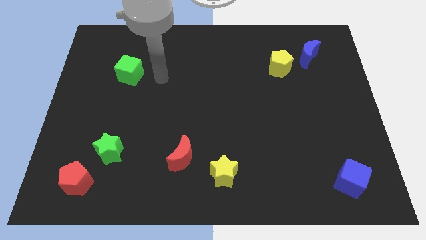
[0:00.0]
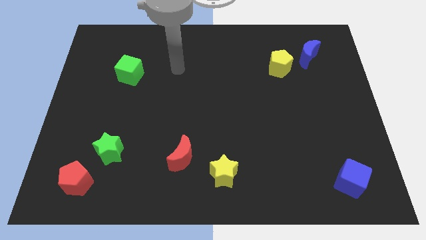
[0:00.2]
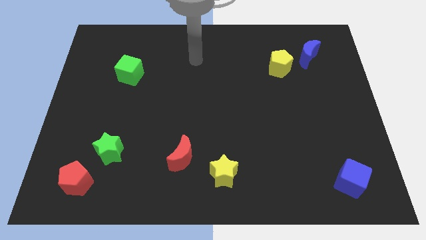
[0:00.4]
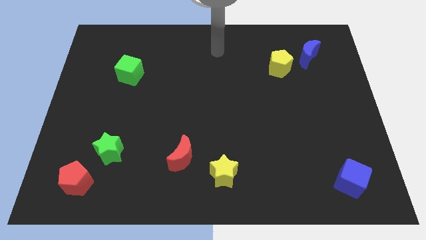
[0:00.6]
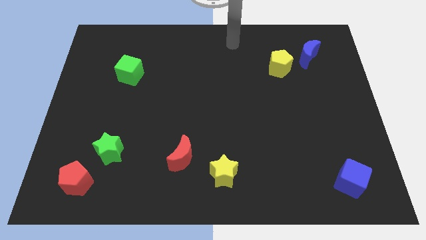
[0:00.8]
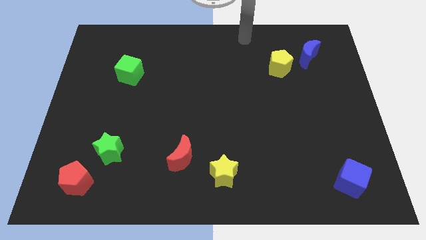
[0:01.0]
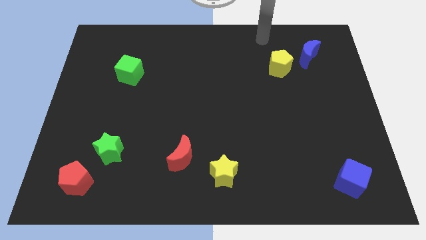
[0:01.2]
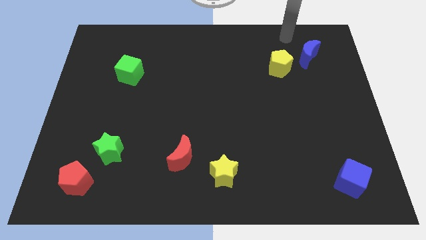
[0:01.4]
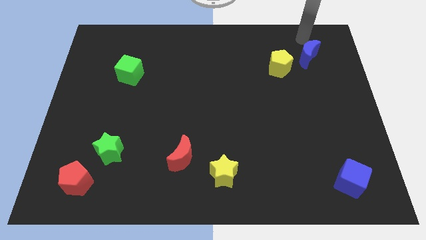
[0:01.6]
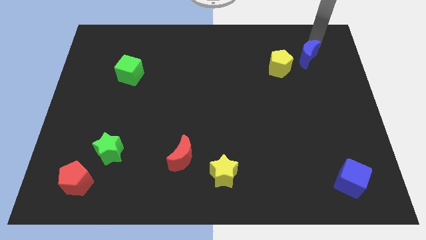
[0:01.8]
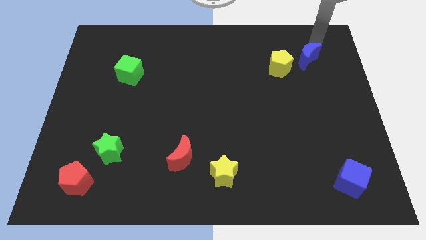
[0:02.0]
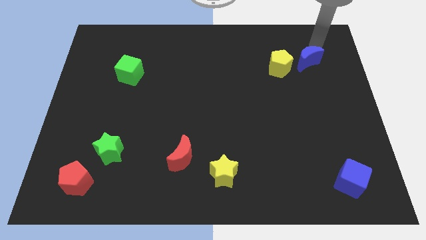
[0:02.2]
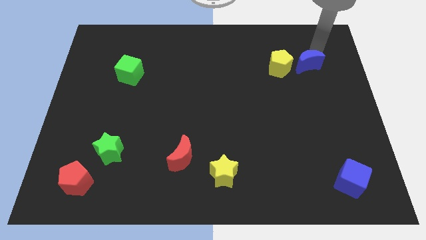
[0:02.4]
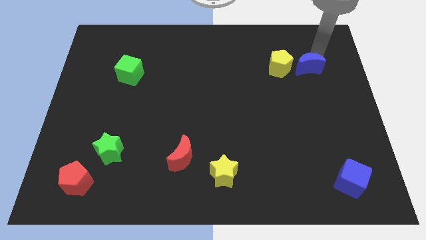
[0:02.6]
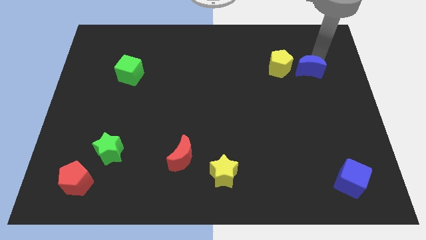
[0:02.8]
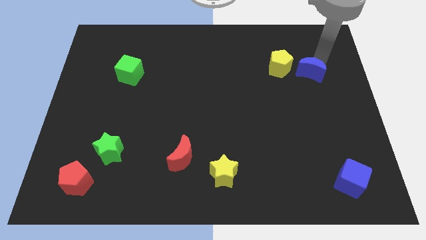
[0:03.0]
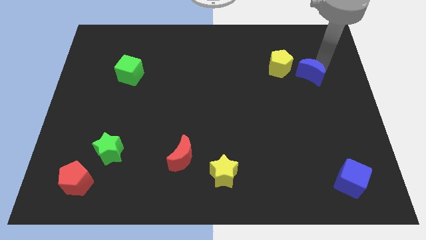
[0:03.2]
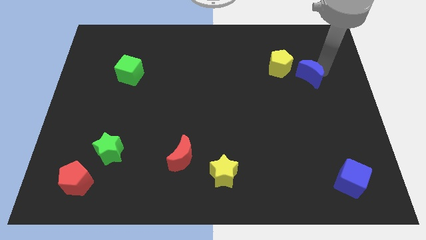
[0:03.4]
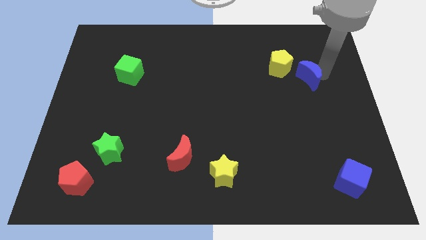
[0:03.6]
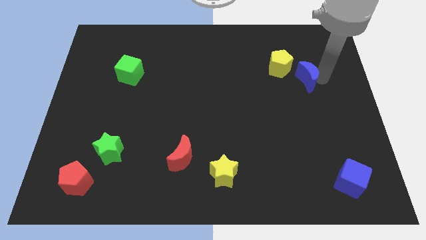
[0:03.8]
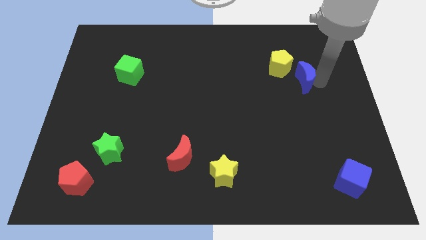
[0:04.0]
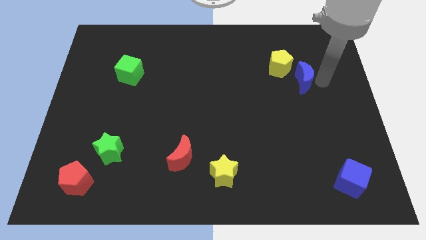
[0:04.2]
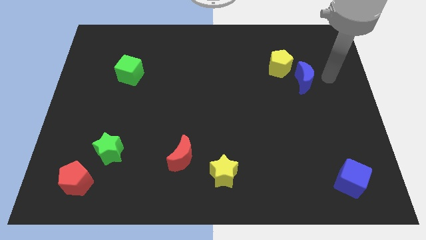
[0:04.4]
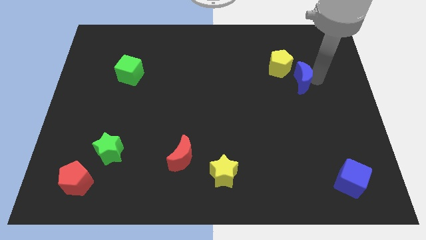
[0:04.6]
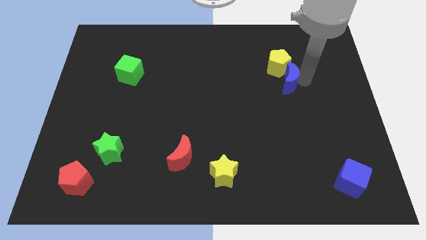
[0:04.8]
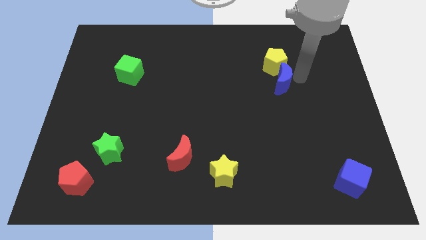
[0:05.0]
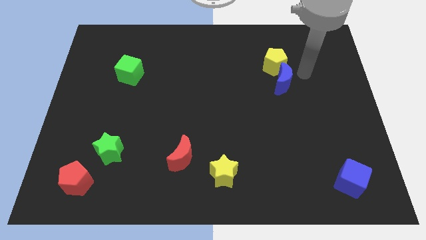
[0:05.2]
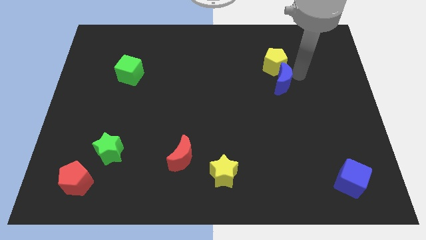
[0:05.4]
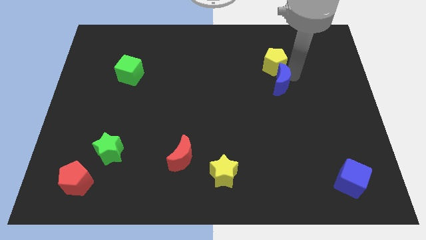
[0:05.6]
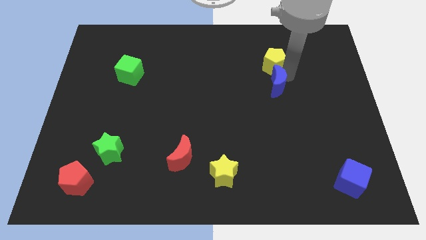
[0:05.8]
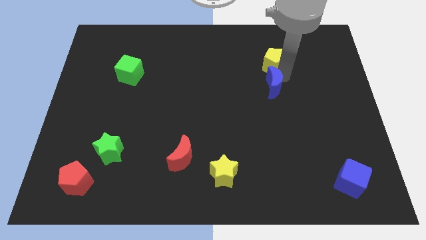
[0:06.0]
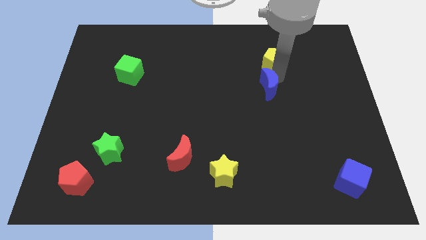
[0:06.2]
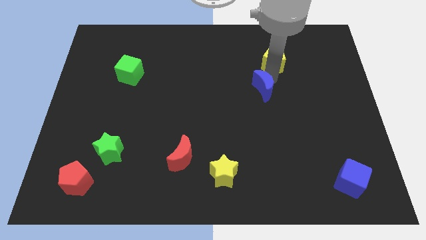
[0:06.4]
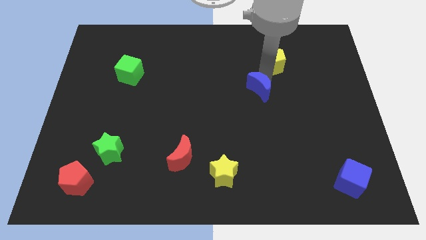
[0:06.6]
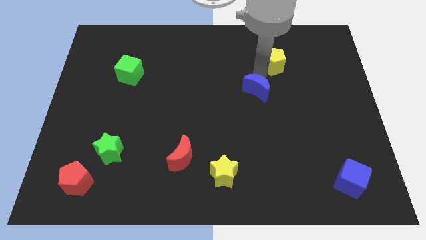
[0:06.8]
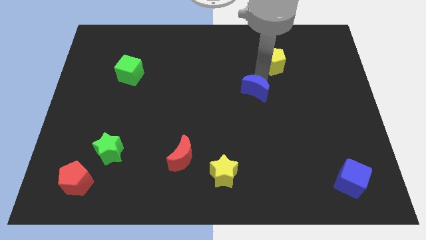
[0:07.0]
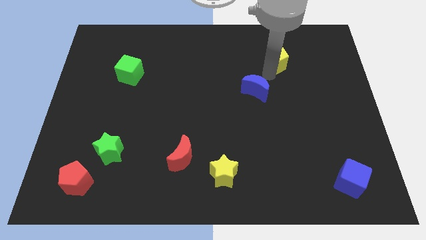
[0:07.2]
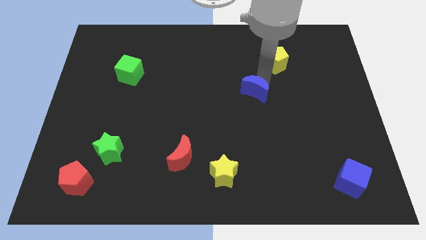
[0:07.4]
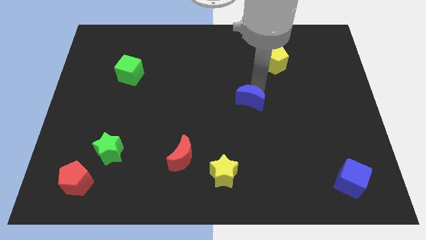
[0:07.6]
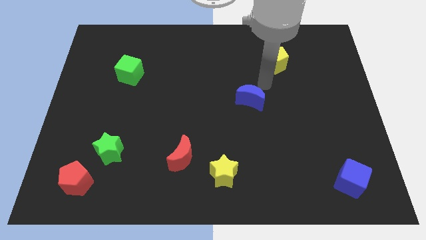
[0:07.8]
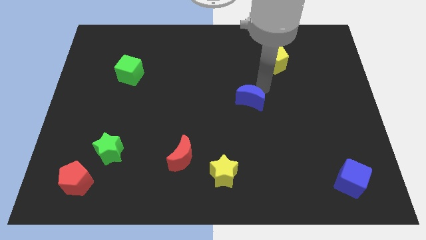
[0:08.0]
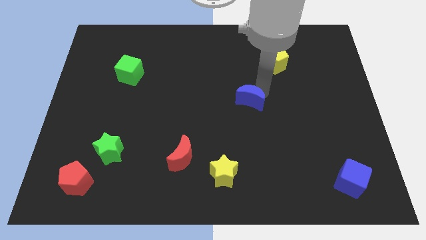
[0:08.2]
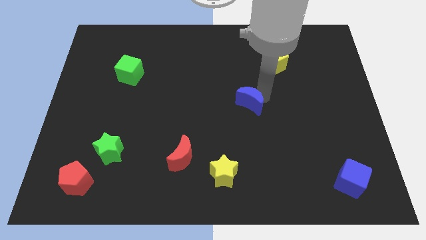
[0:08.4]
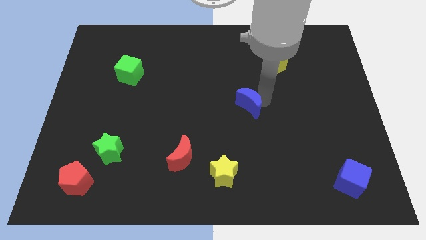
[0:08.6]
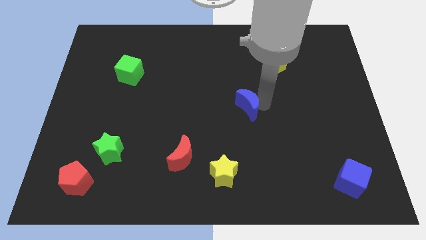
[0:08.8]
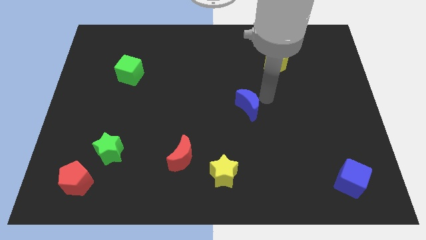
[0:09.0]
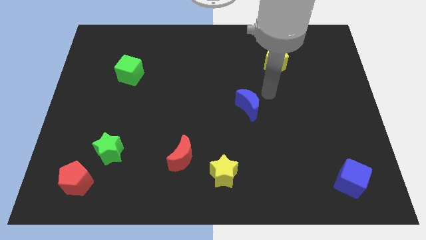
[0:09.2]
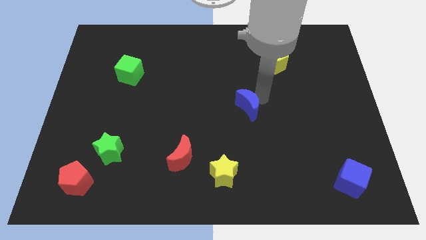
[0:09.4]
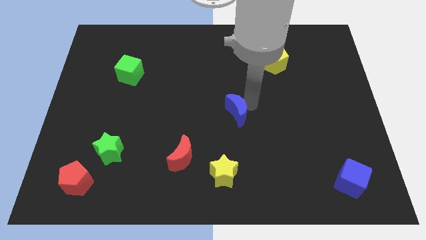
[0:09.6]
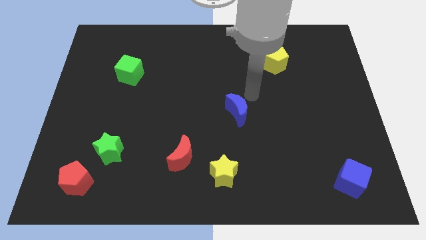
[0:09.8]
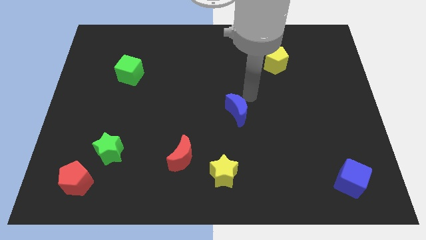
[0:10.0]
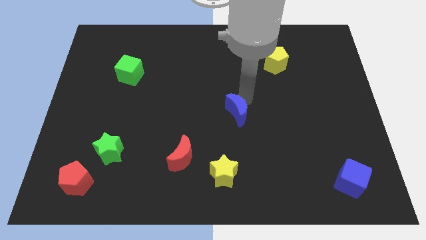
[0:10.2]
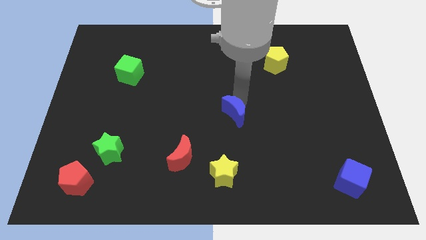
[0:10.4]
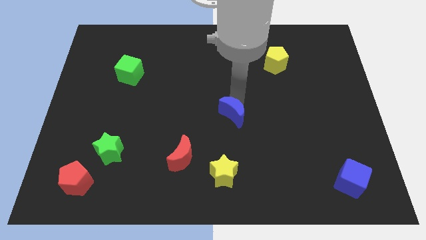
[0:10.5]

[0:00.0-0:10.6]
put the blue moon to the top of the yellow star

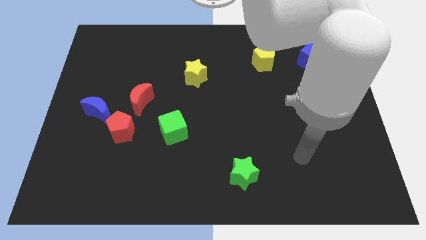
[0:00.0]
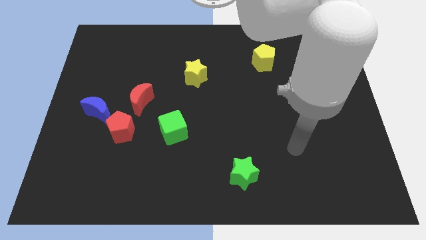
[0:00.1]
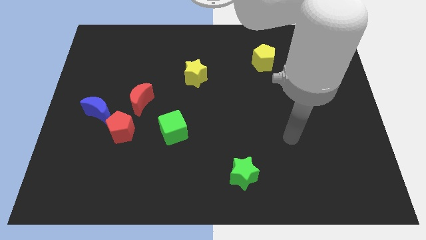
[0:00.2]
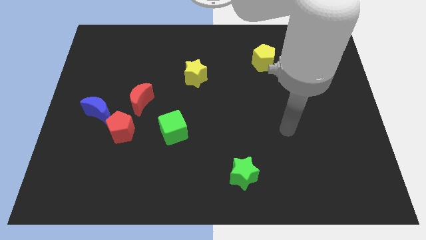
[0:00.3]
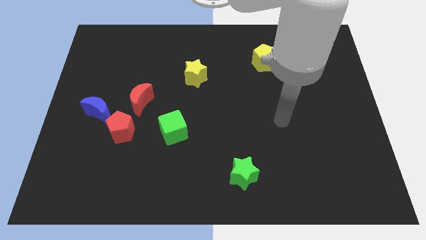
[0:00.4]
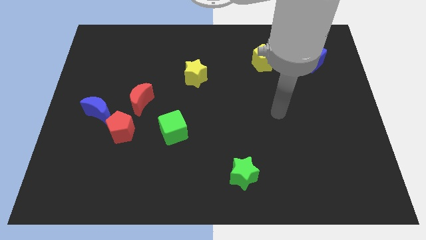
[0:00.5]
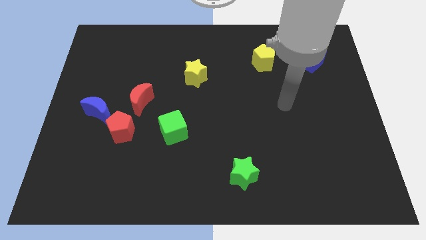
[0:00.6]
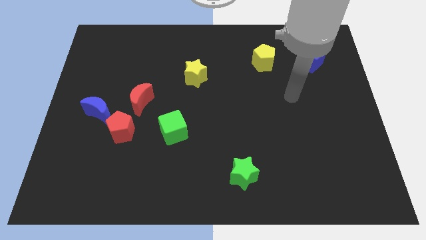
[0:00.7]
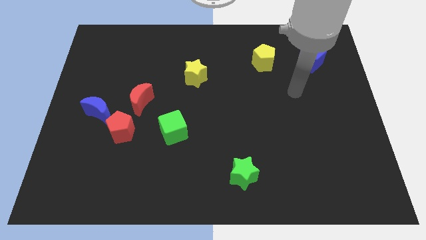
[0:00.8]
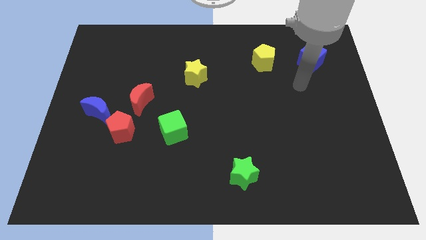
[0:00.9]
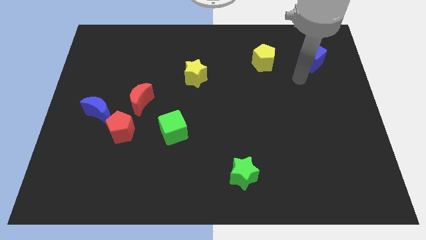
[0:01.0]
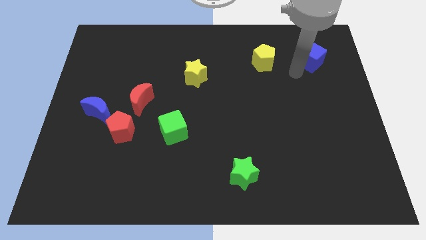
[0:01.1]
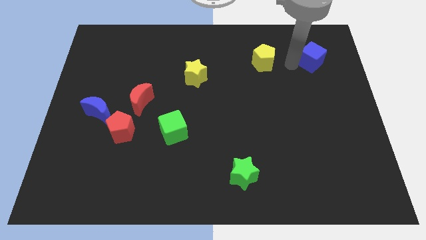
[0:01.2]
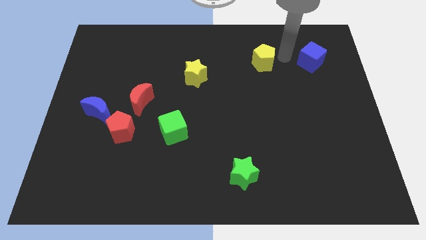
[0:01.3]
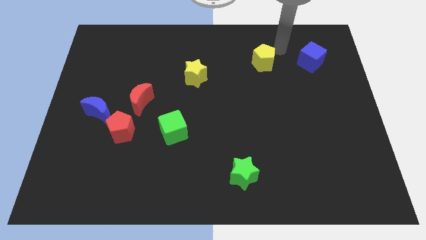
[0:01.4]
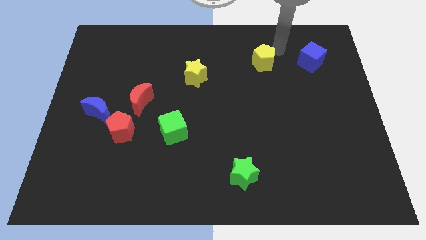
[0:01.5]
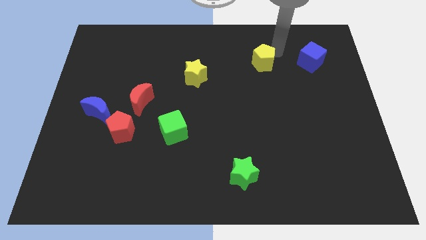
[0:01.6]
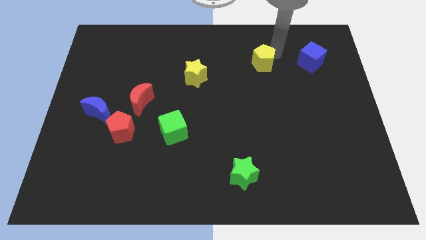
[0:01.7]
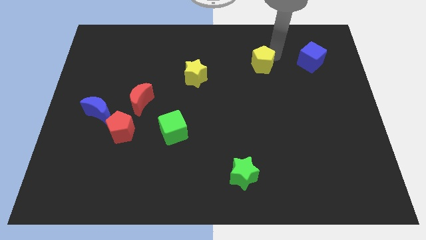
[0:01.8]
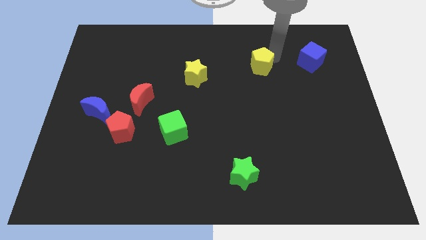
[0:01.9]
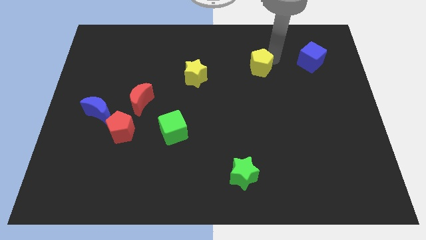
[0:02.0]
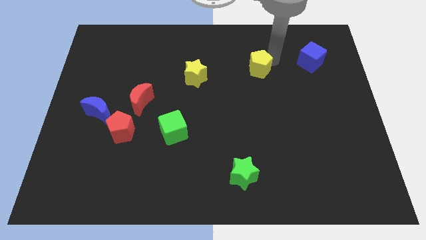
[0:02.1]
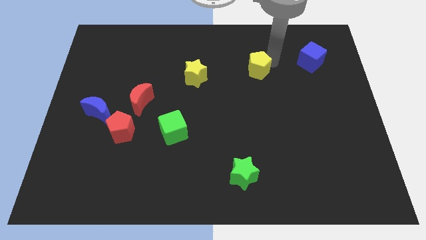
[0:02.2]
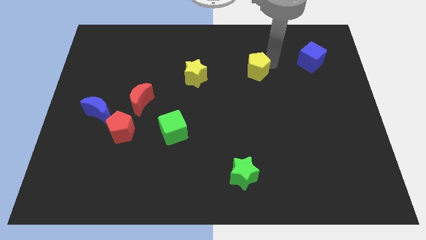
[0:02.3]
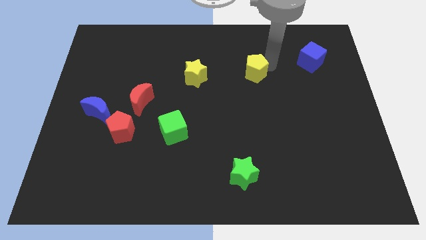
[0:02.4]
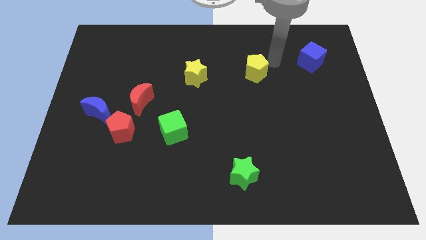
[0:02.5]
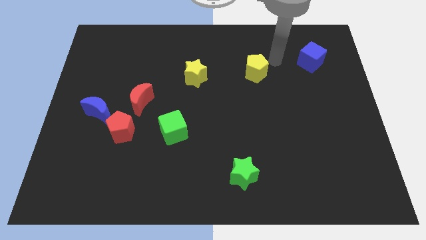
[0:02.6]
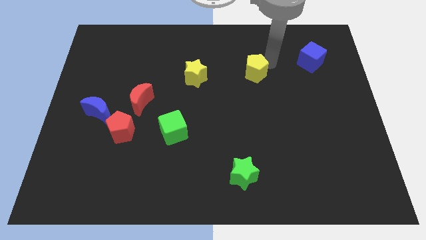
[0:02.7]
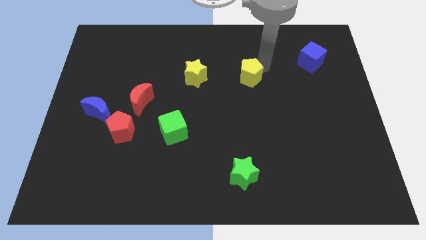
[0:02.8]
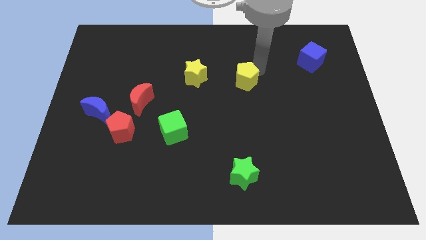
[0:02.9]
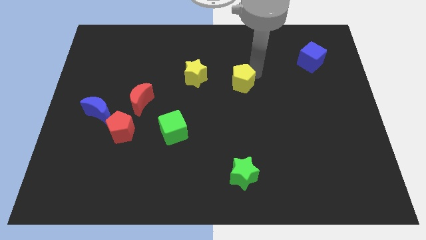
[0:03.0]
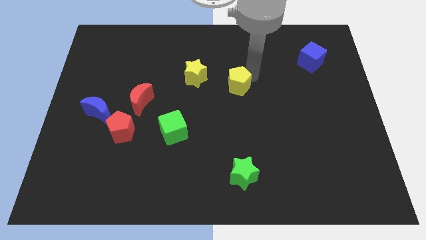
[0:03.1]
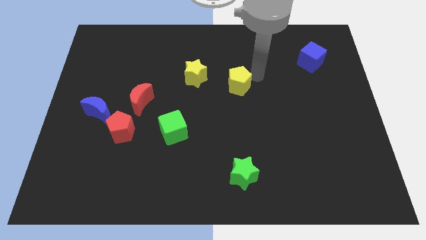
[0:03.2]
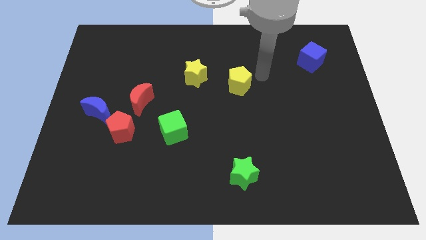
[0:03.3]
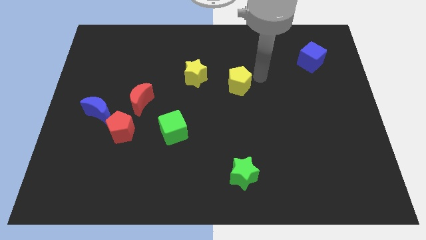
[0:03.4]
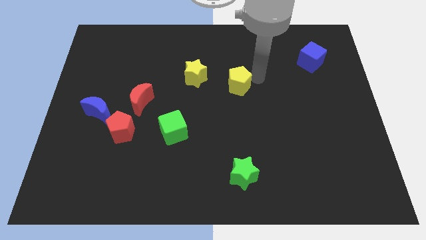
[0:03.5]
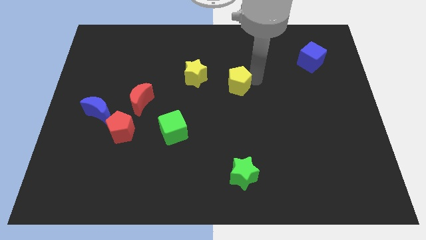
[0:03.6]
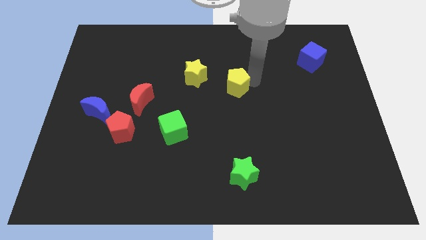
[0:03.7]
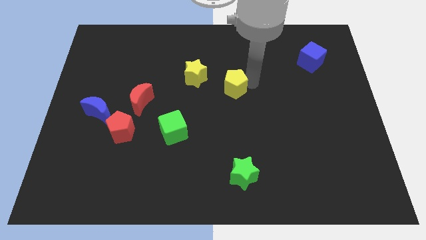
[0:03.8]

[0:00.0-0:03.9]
move the yellow pentagon to the bottom right of the yellow star
